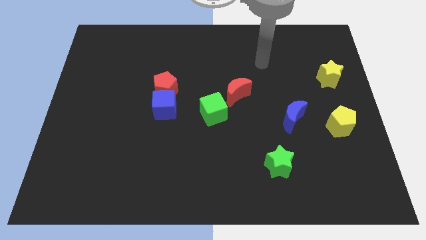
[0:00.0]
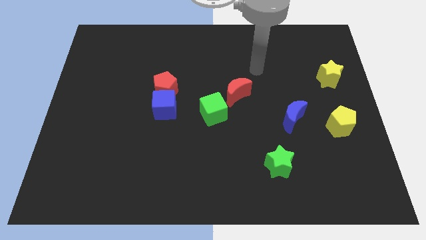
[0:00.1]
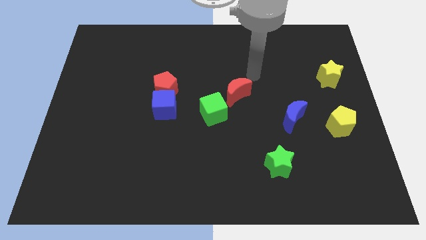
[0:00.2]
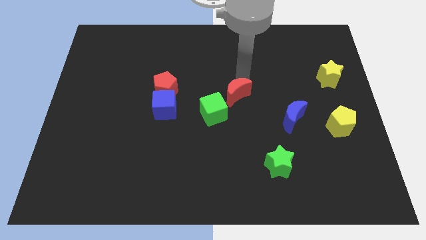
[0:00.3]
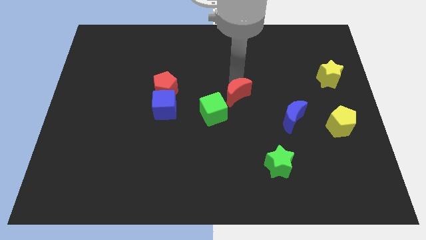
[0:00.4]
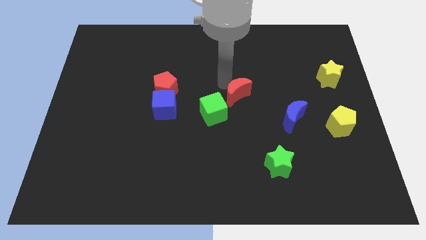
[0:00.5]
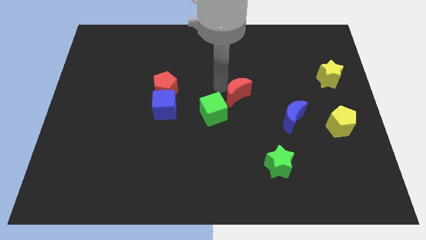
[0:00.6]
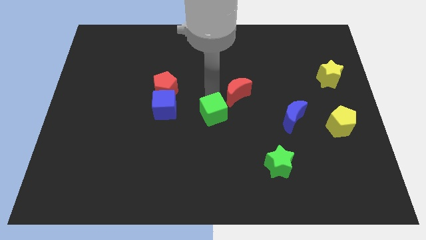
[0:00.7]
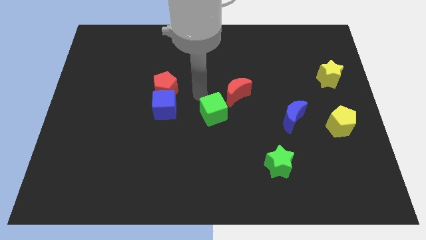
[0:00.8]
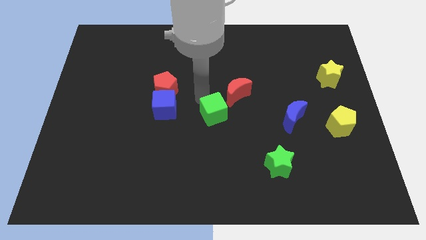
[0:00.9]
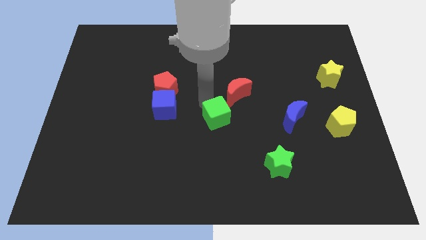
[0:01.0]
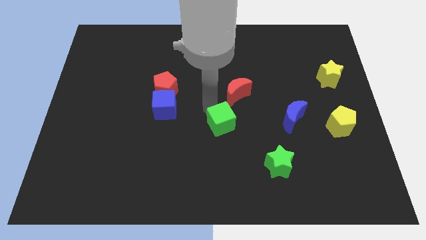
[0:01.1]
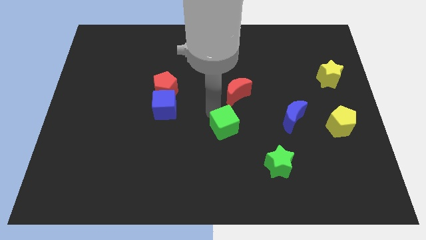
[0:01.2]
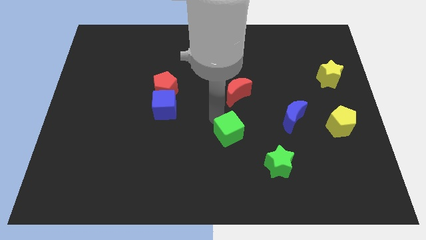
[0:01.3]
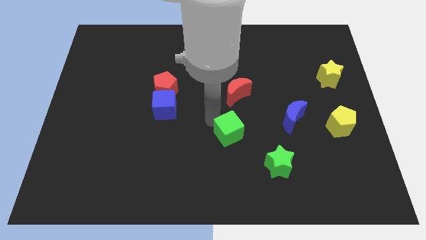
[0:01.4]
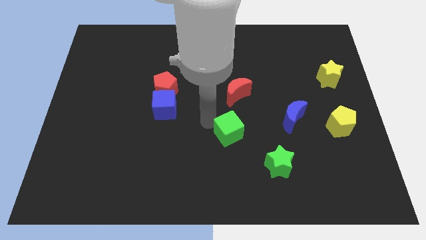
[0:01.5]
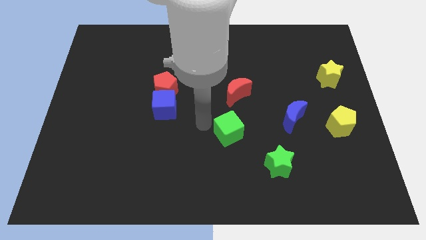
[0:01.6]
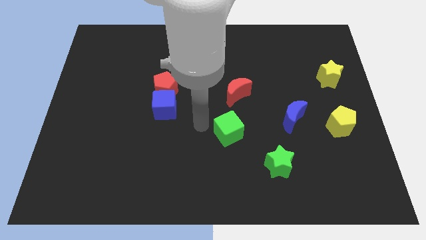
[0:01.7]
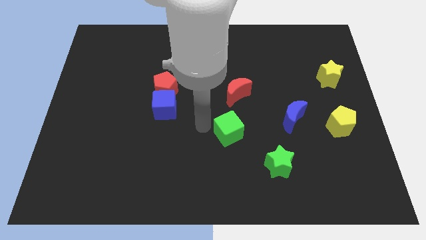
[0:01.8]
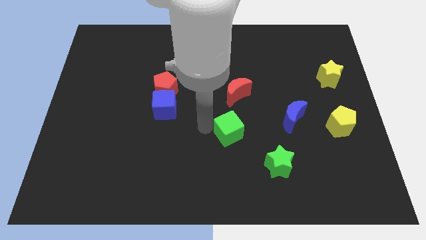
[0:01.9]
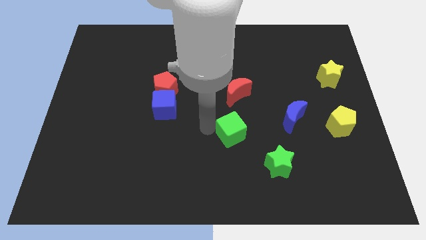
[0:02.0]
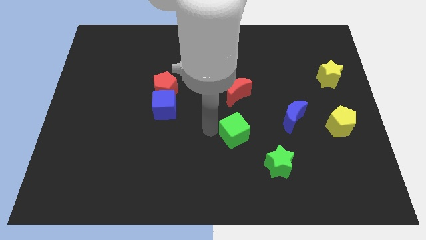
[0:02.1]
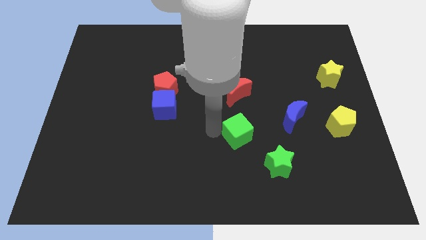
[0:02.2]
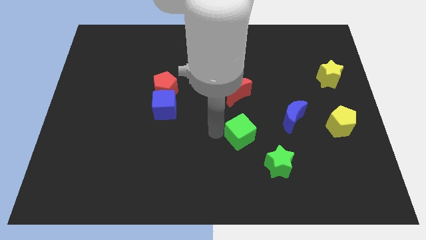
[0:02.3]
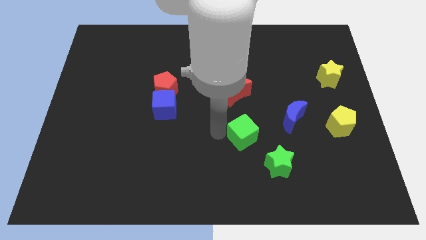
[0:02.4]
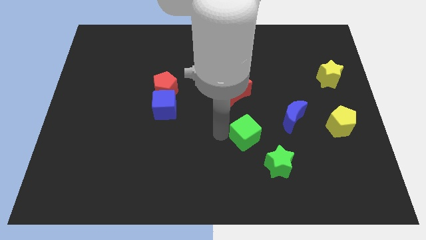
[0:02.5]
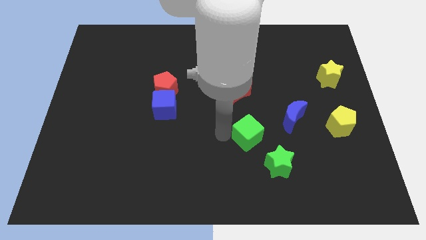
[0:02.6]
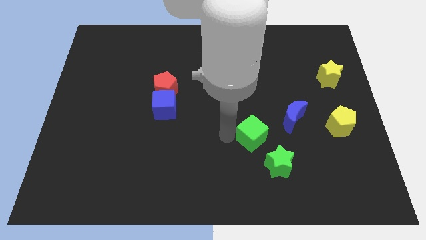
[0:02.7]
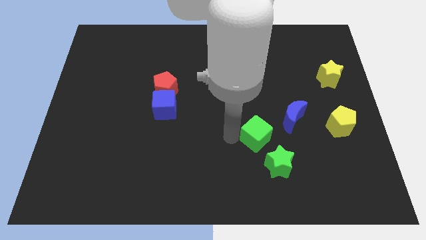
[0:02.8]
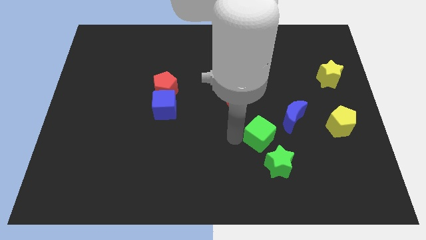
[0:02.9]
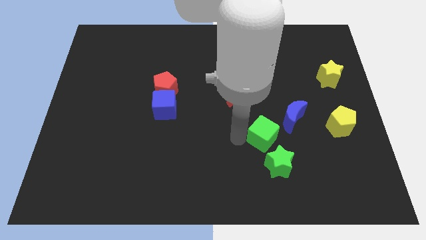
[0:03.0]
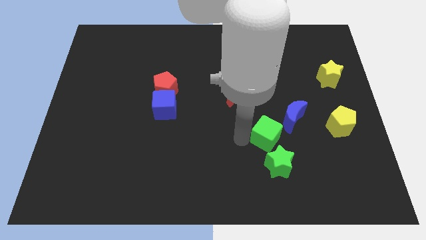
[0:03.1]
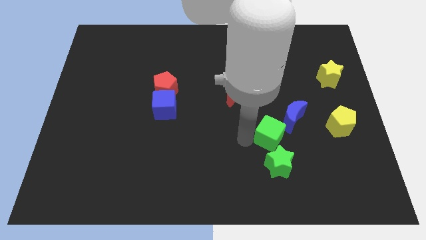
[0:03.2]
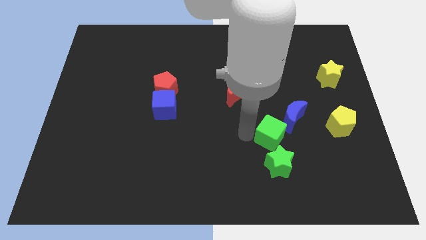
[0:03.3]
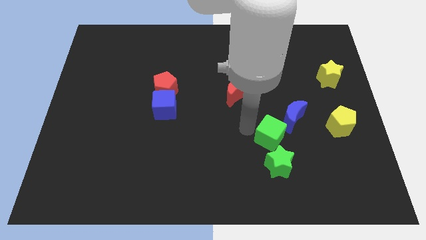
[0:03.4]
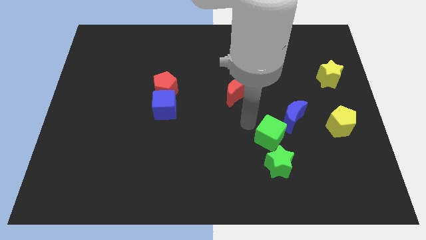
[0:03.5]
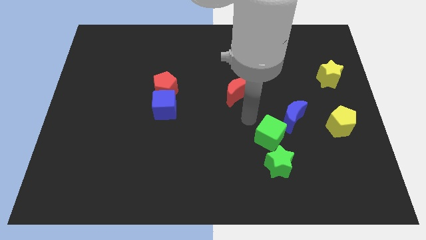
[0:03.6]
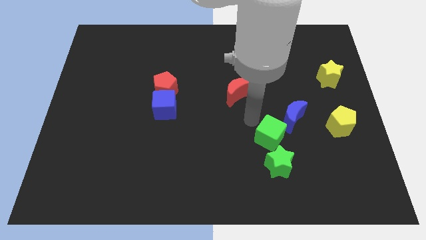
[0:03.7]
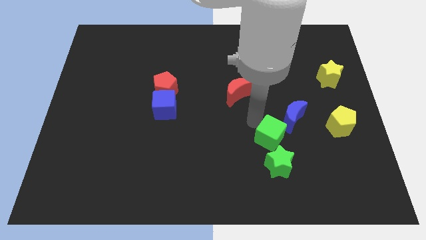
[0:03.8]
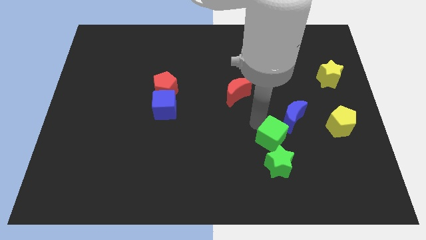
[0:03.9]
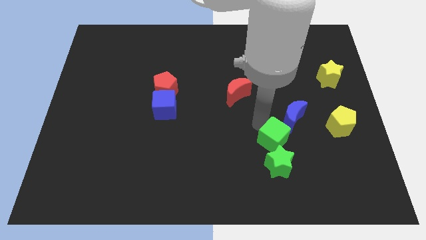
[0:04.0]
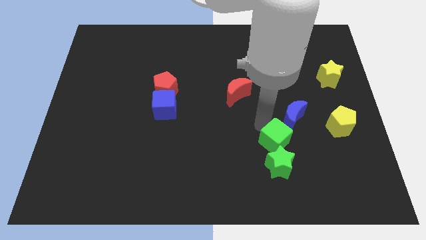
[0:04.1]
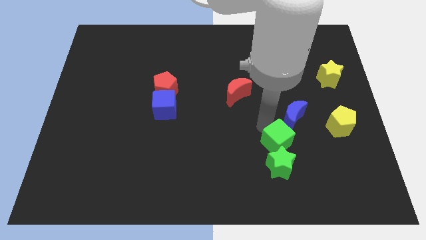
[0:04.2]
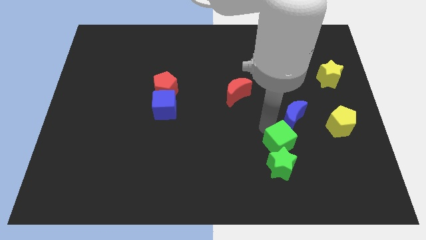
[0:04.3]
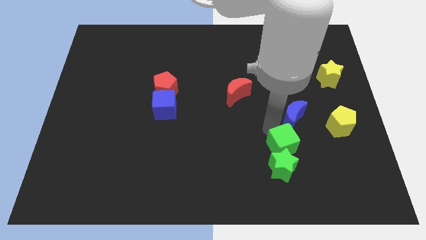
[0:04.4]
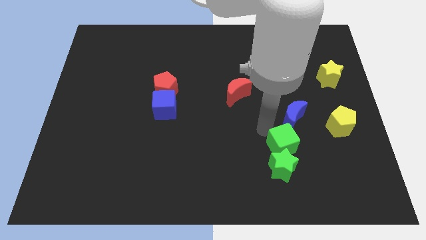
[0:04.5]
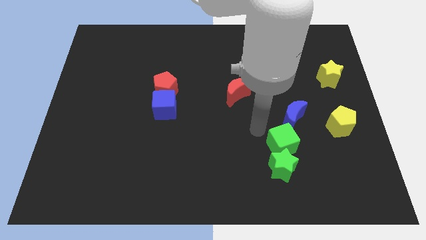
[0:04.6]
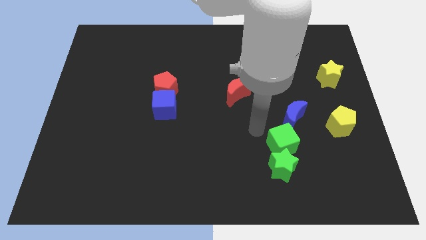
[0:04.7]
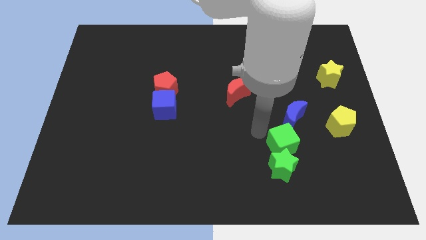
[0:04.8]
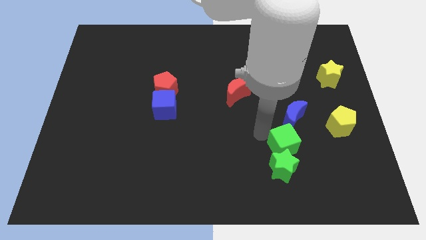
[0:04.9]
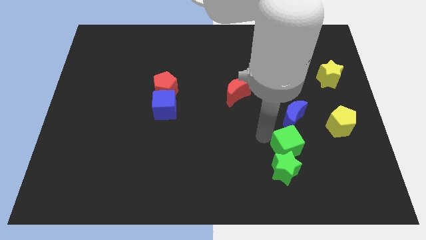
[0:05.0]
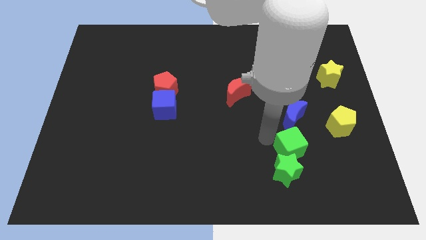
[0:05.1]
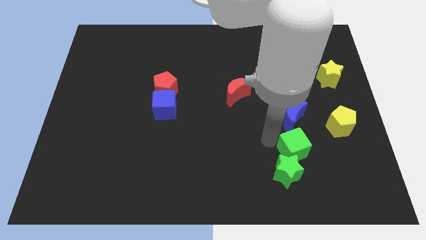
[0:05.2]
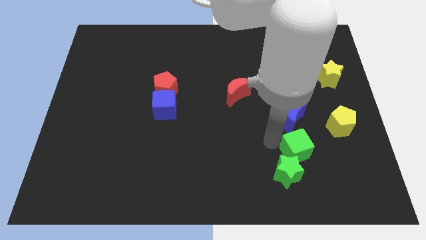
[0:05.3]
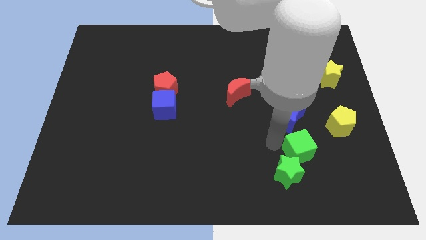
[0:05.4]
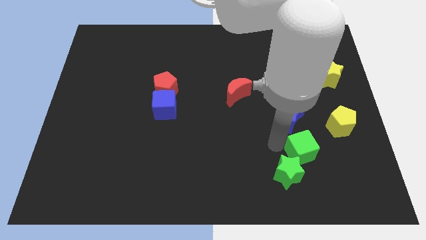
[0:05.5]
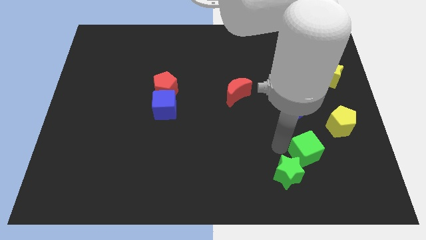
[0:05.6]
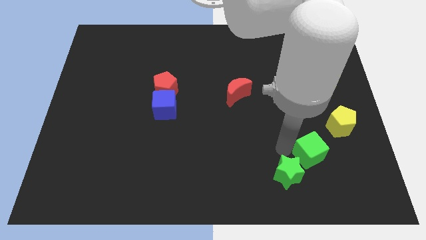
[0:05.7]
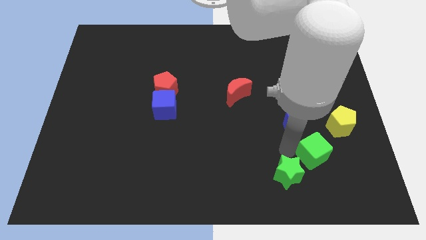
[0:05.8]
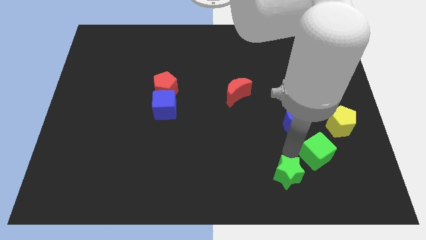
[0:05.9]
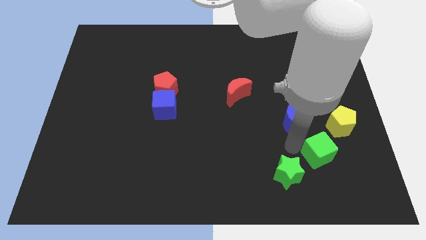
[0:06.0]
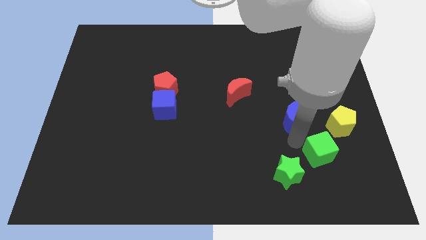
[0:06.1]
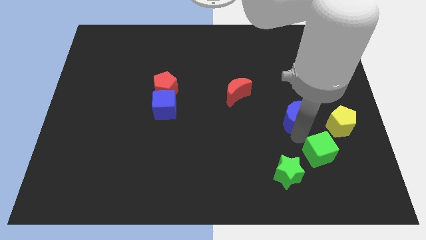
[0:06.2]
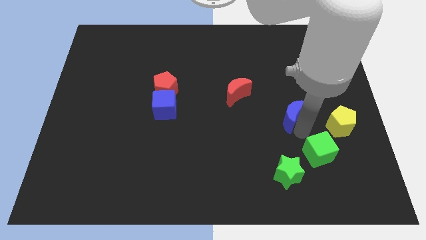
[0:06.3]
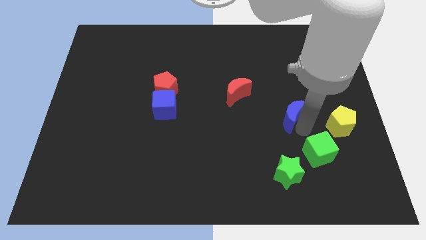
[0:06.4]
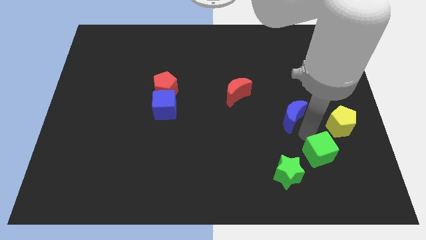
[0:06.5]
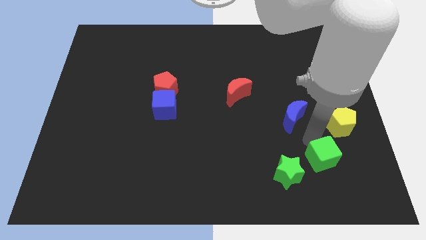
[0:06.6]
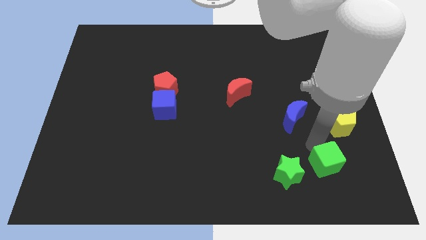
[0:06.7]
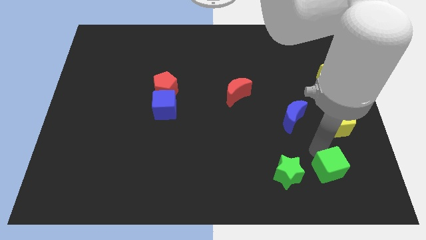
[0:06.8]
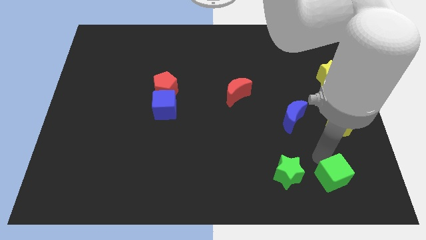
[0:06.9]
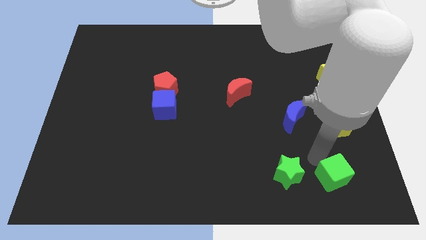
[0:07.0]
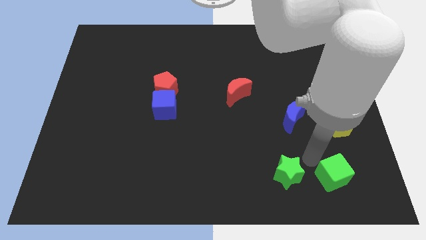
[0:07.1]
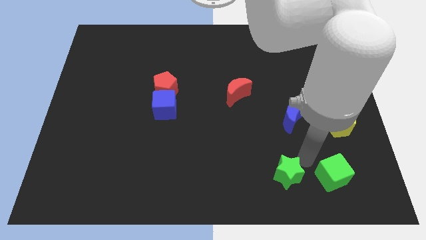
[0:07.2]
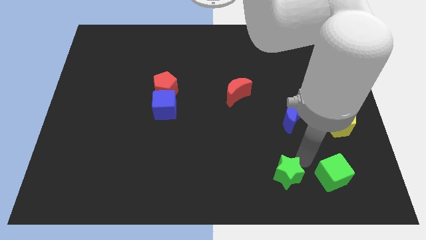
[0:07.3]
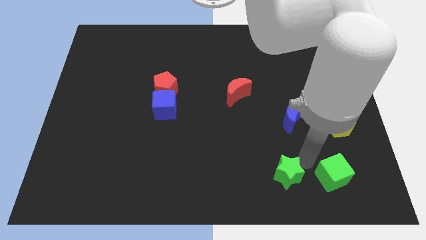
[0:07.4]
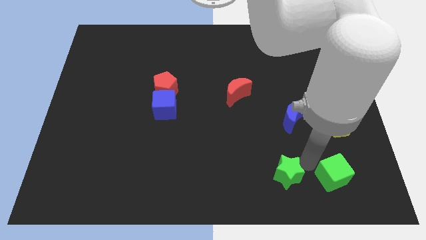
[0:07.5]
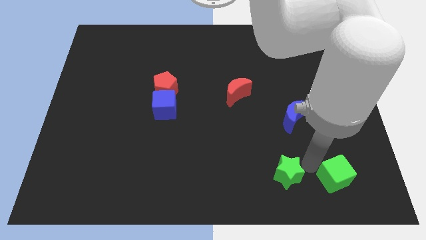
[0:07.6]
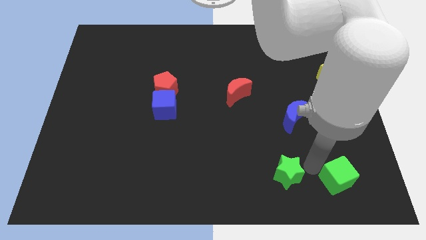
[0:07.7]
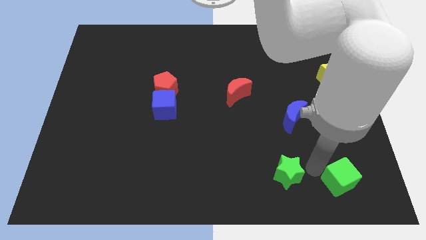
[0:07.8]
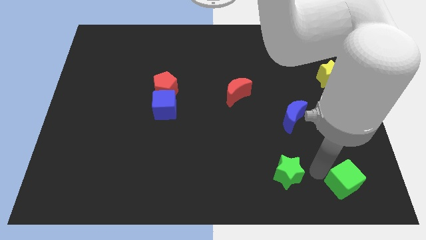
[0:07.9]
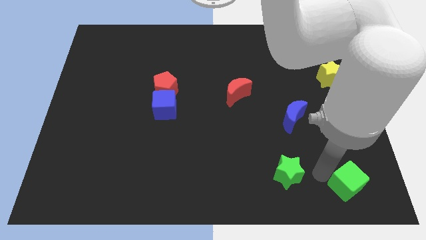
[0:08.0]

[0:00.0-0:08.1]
put the green cube to the bottom right
